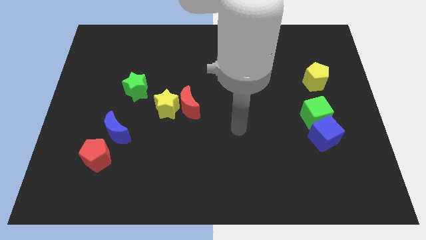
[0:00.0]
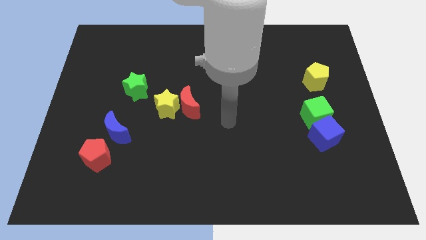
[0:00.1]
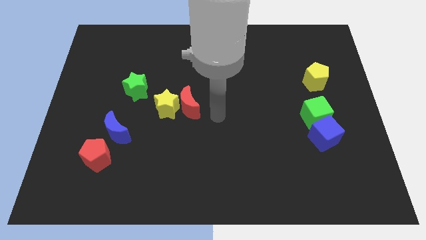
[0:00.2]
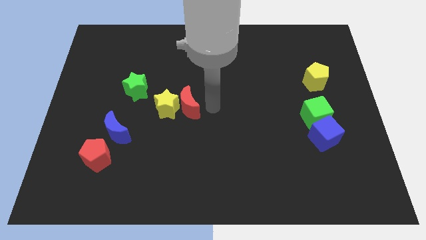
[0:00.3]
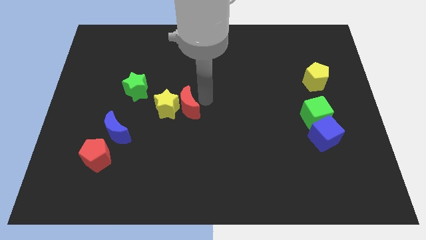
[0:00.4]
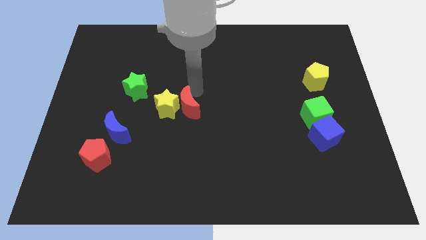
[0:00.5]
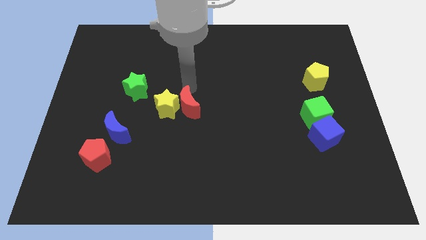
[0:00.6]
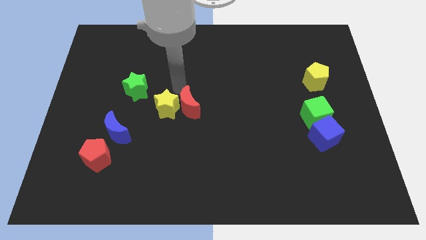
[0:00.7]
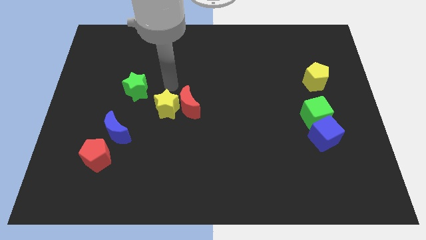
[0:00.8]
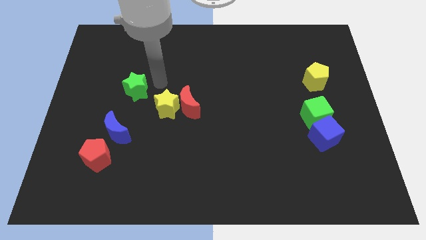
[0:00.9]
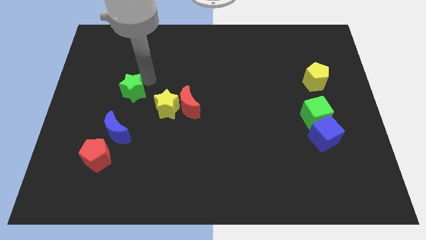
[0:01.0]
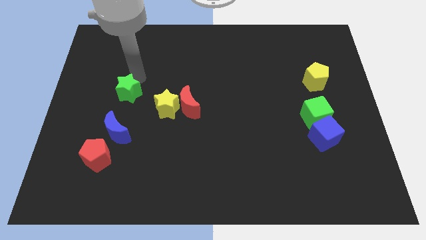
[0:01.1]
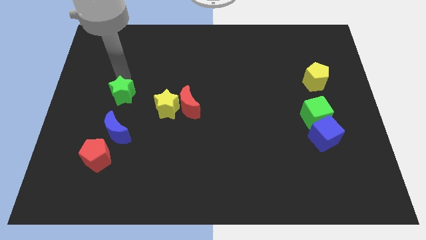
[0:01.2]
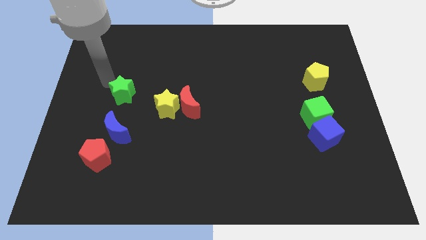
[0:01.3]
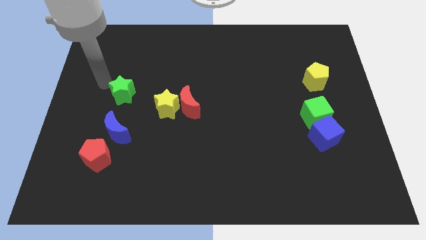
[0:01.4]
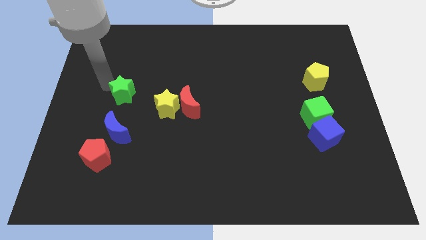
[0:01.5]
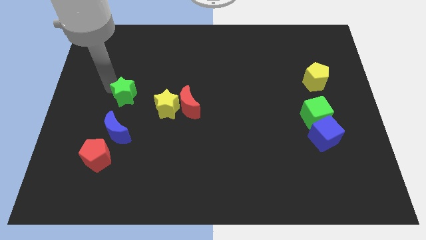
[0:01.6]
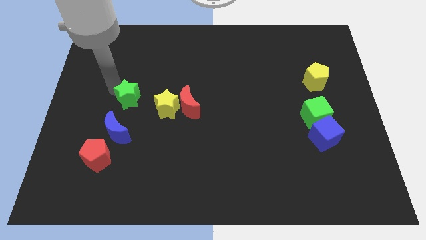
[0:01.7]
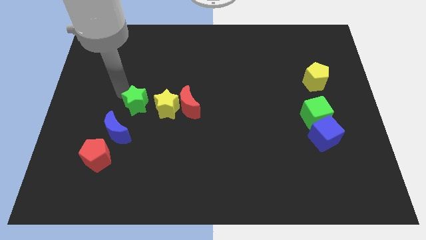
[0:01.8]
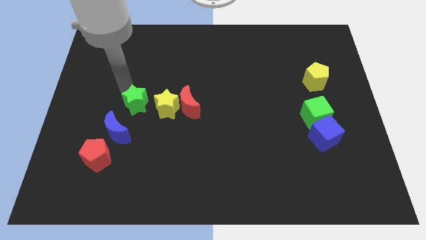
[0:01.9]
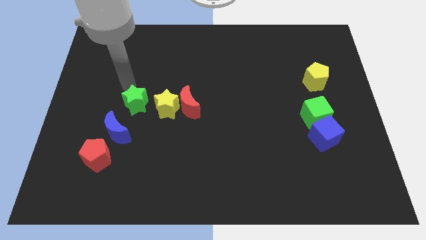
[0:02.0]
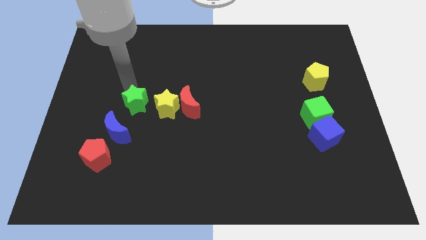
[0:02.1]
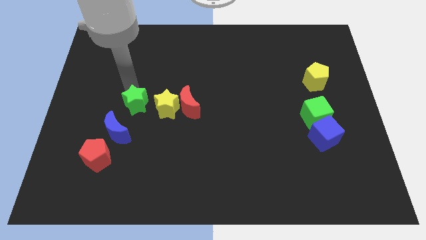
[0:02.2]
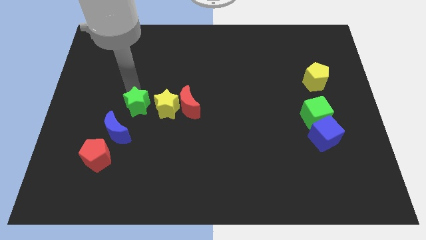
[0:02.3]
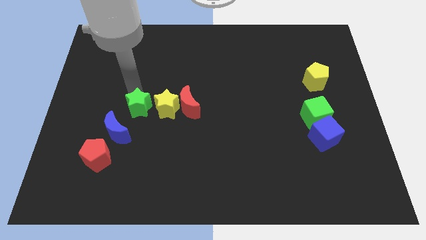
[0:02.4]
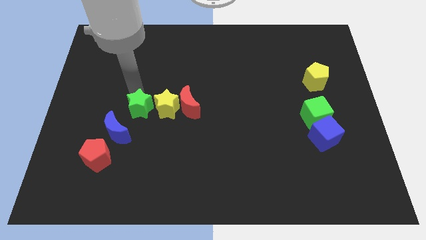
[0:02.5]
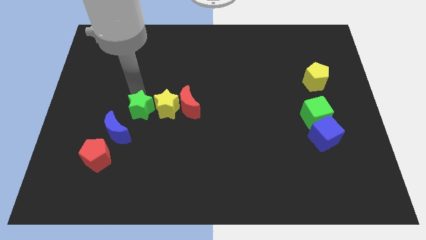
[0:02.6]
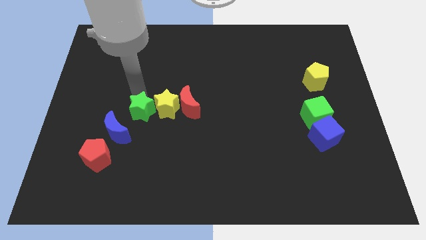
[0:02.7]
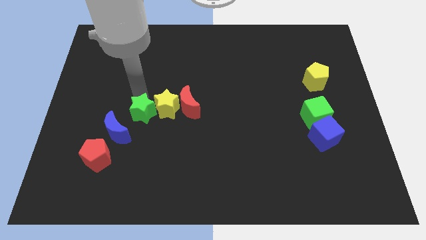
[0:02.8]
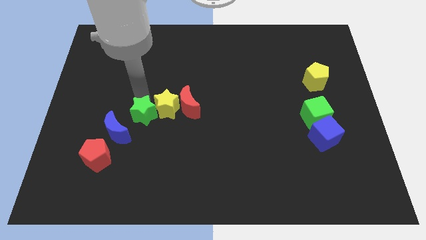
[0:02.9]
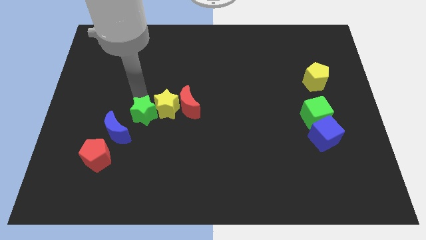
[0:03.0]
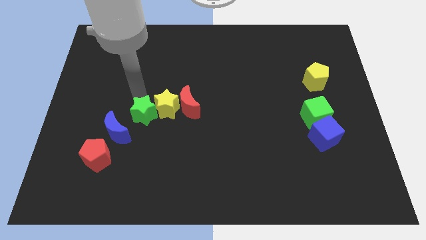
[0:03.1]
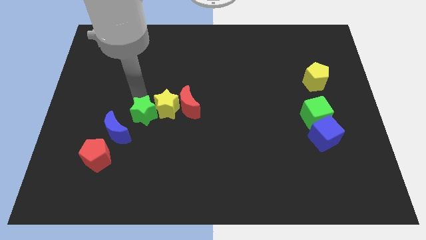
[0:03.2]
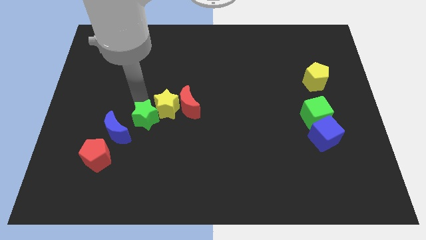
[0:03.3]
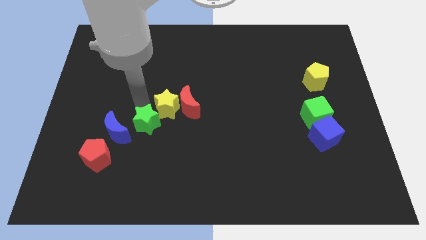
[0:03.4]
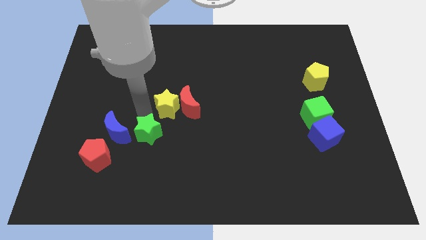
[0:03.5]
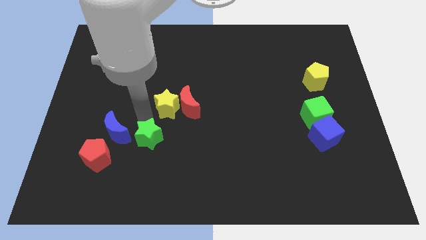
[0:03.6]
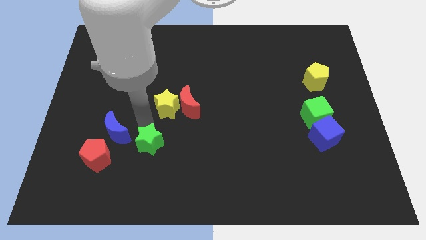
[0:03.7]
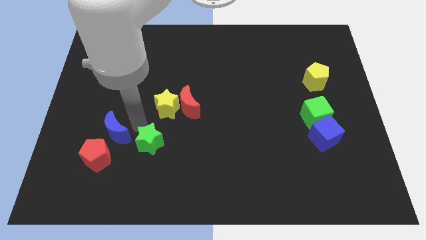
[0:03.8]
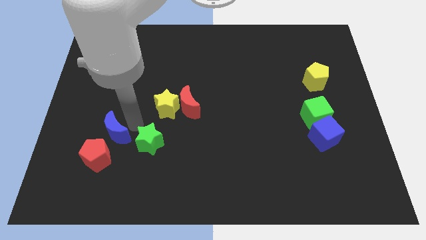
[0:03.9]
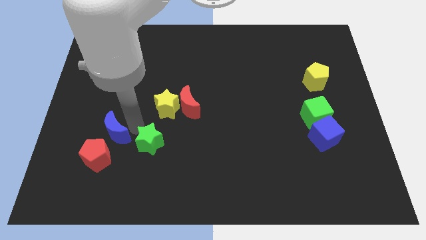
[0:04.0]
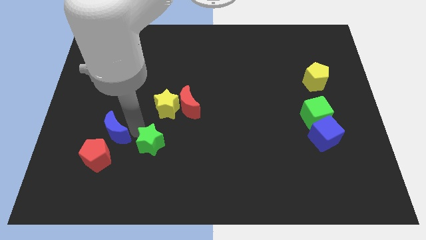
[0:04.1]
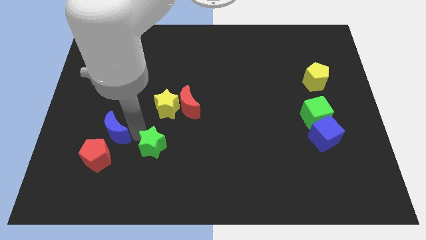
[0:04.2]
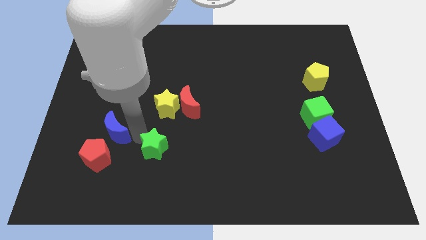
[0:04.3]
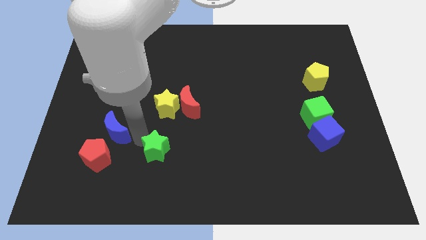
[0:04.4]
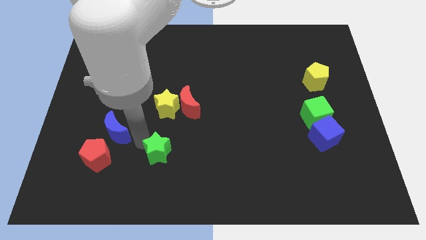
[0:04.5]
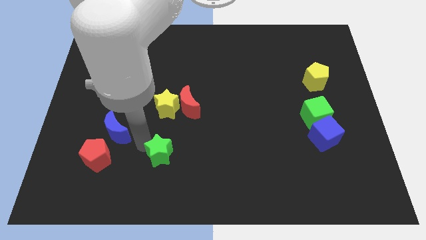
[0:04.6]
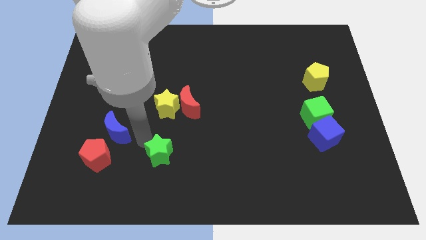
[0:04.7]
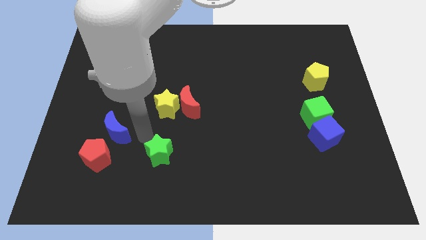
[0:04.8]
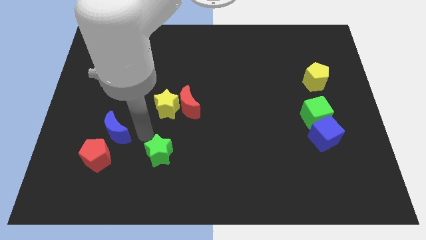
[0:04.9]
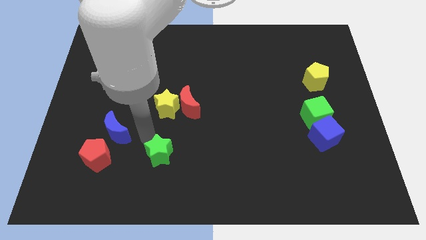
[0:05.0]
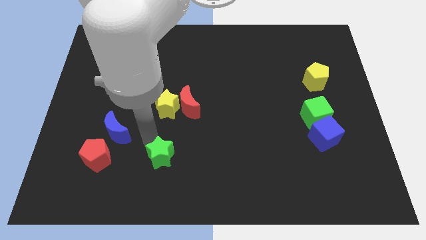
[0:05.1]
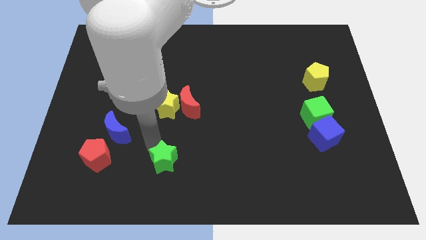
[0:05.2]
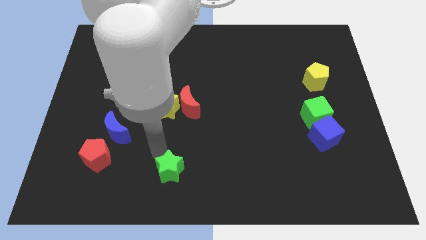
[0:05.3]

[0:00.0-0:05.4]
push the green star to the bottom side
